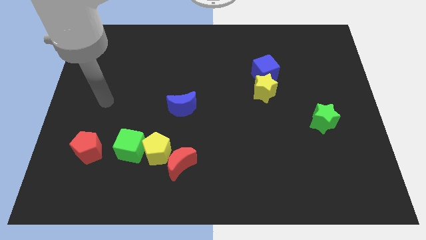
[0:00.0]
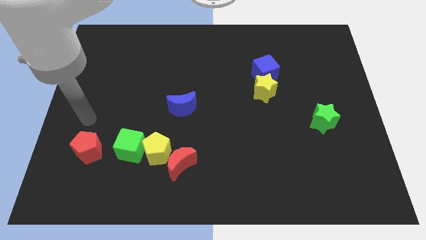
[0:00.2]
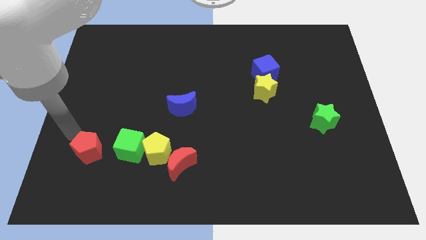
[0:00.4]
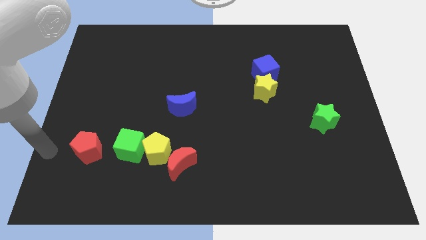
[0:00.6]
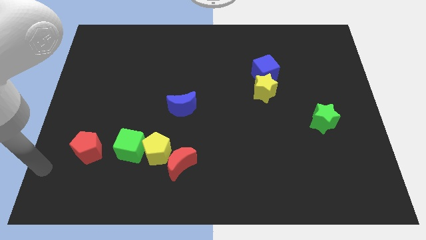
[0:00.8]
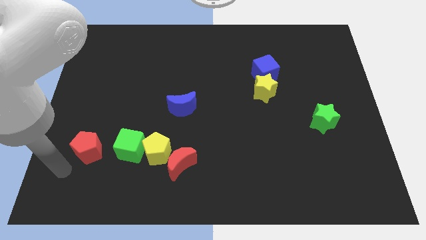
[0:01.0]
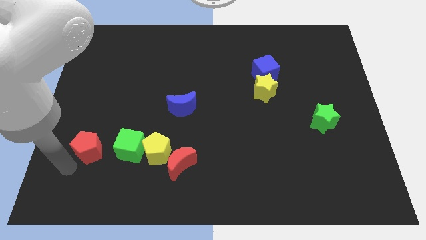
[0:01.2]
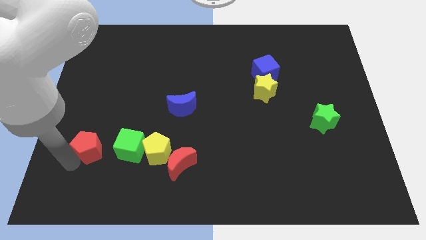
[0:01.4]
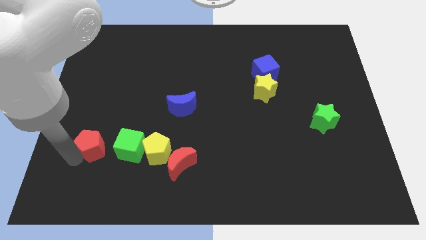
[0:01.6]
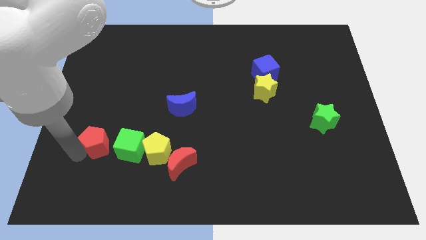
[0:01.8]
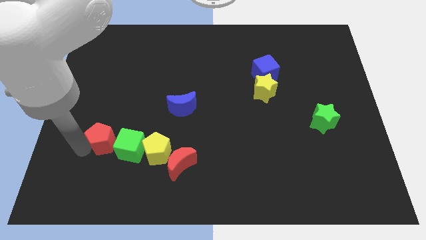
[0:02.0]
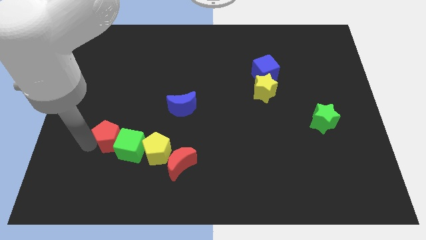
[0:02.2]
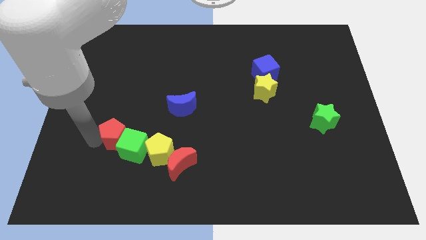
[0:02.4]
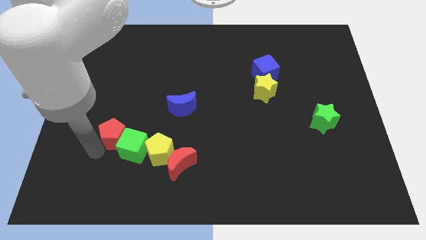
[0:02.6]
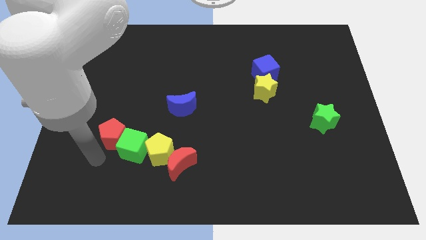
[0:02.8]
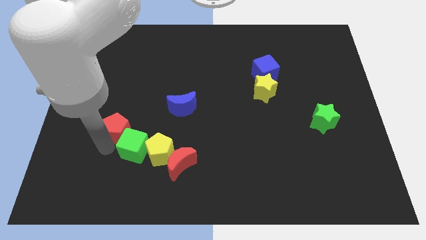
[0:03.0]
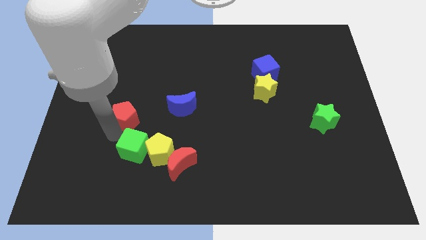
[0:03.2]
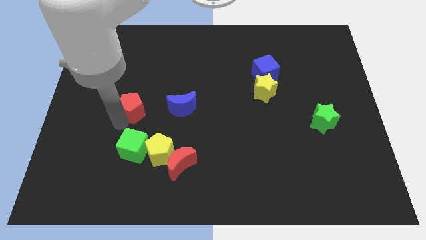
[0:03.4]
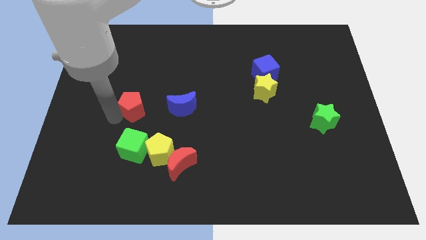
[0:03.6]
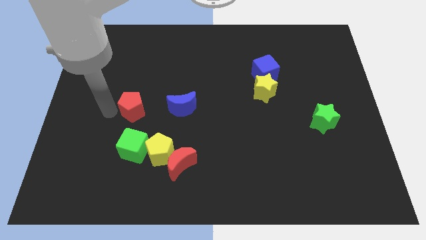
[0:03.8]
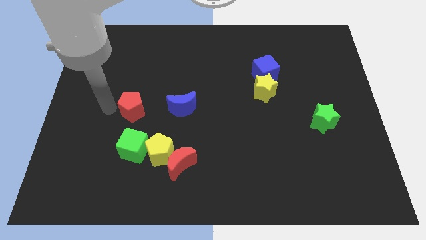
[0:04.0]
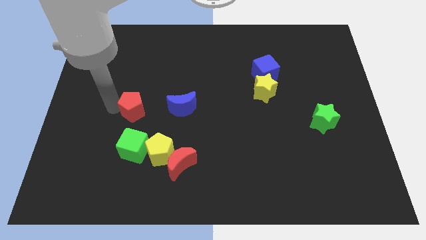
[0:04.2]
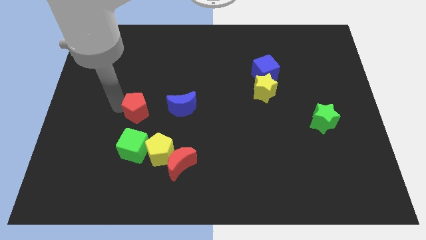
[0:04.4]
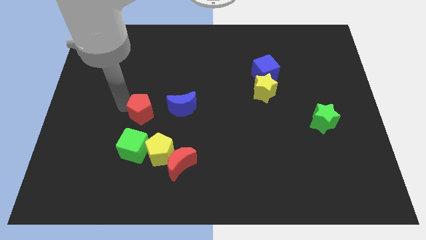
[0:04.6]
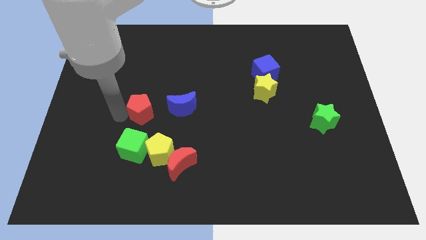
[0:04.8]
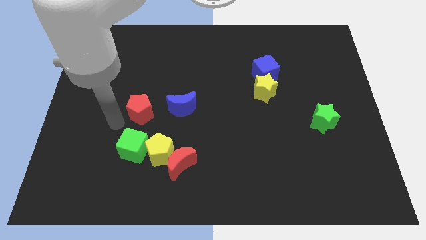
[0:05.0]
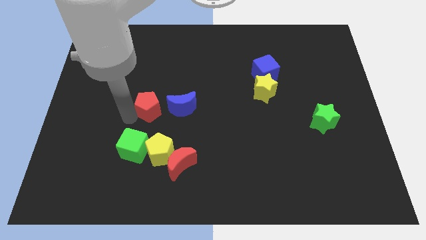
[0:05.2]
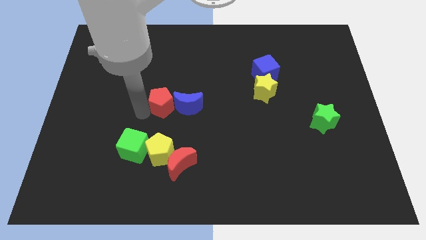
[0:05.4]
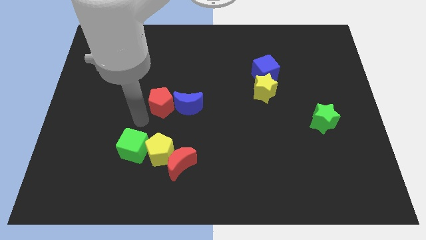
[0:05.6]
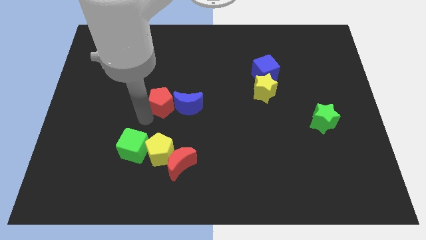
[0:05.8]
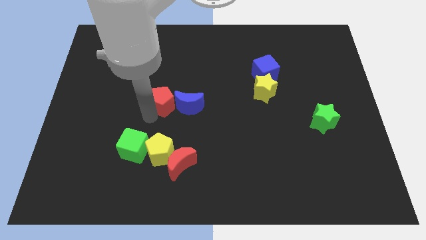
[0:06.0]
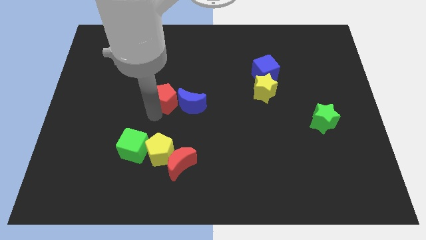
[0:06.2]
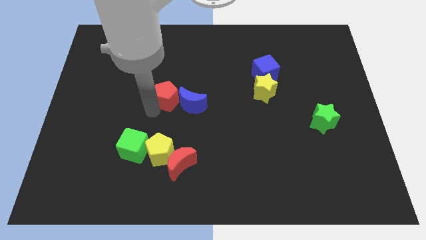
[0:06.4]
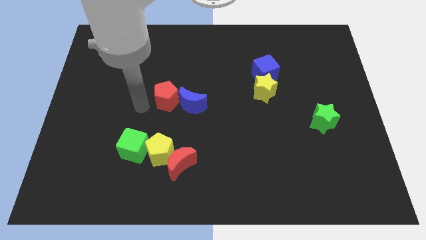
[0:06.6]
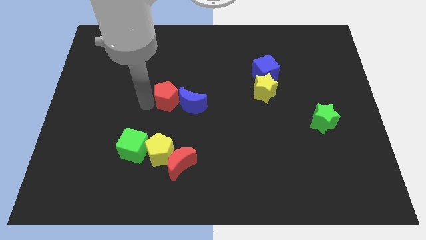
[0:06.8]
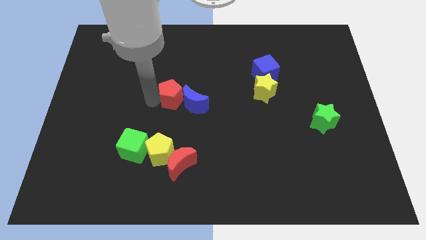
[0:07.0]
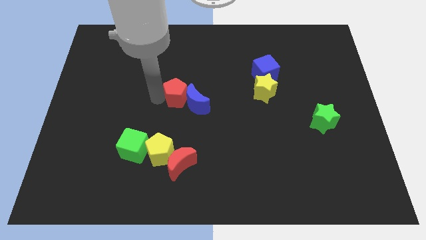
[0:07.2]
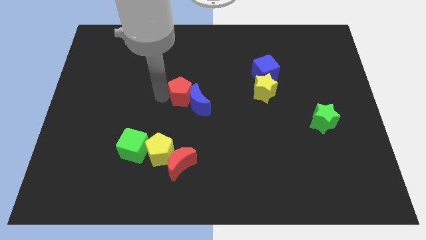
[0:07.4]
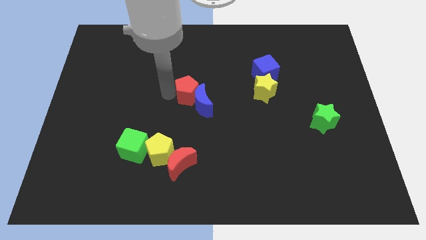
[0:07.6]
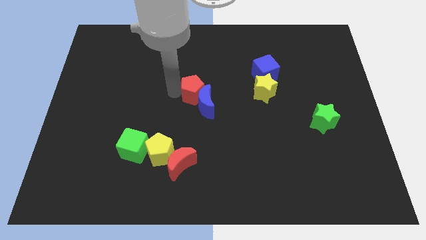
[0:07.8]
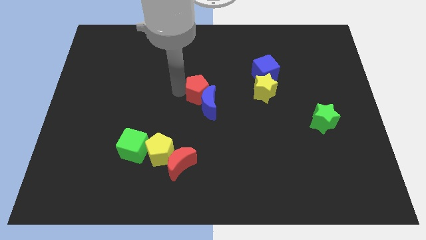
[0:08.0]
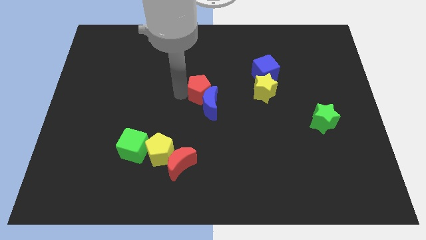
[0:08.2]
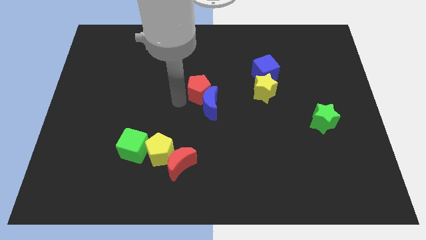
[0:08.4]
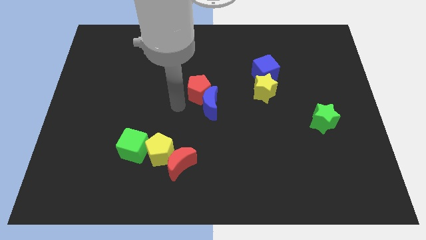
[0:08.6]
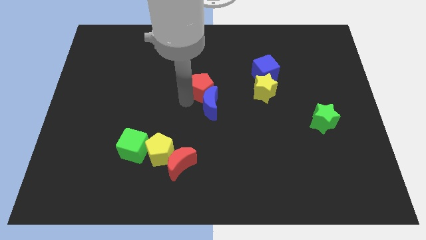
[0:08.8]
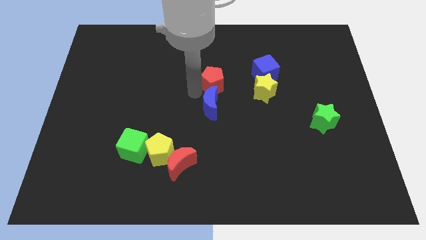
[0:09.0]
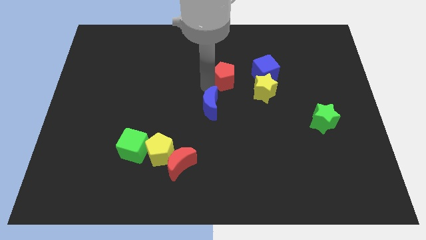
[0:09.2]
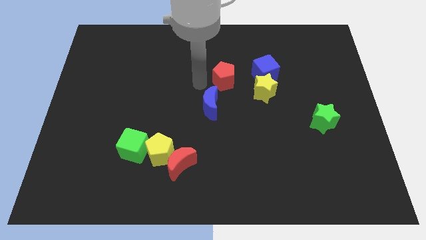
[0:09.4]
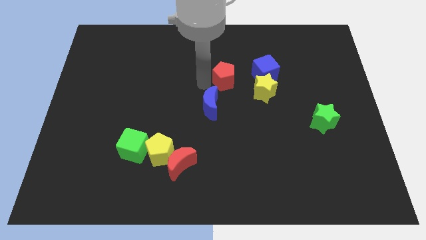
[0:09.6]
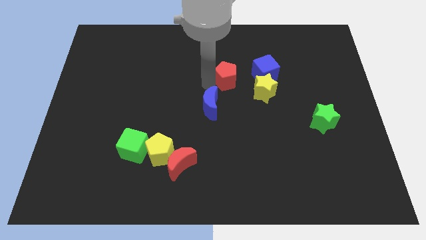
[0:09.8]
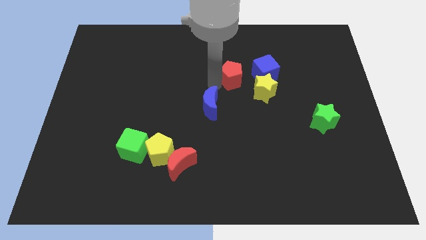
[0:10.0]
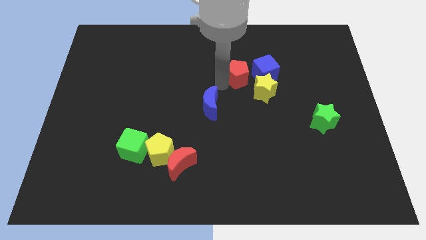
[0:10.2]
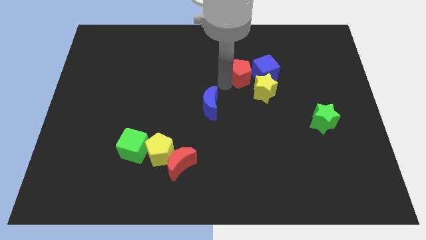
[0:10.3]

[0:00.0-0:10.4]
slide the red pentagon towards the blue cube

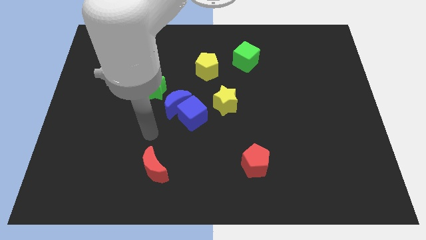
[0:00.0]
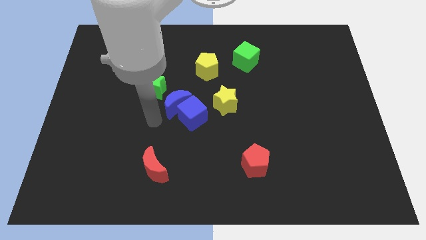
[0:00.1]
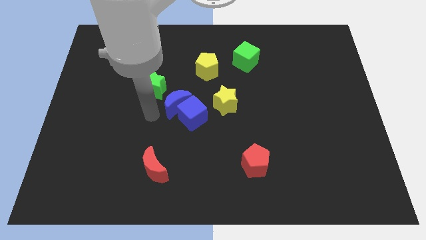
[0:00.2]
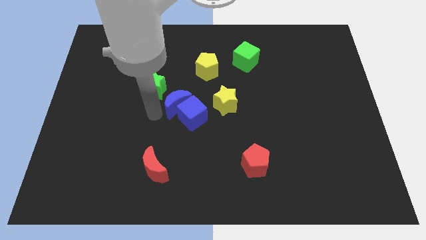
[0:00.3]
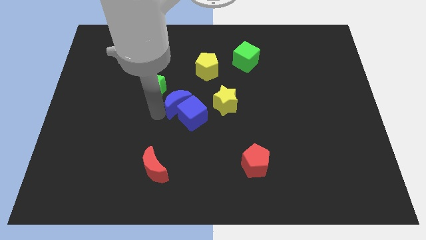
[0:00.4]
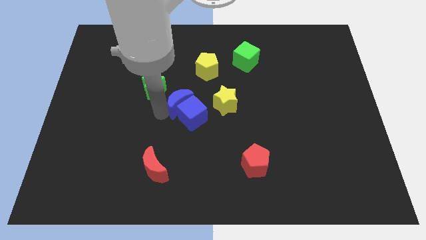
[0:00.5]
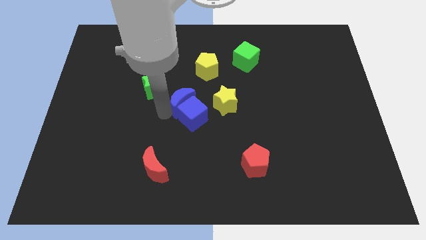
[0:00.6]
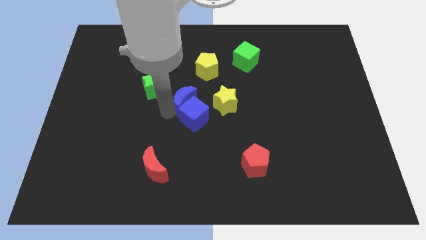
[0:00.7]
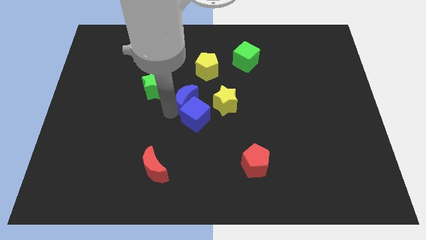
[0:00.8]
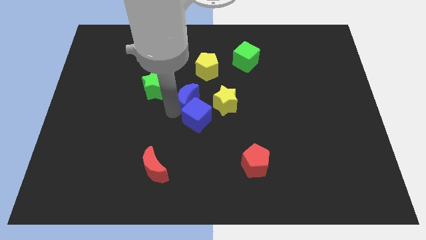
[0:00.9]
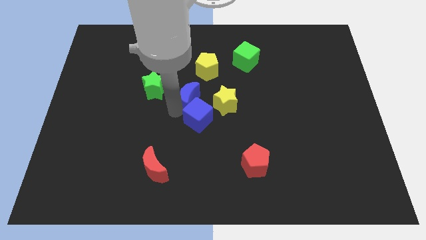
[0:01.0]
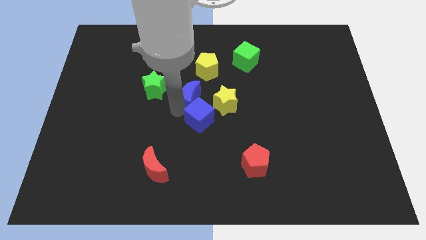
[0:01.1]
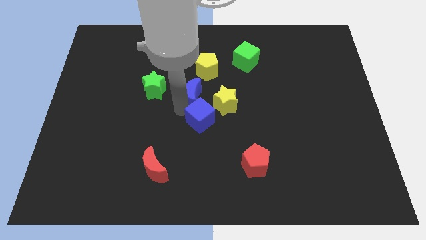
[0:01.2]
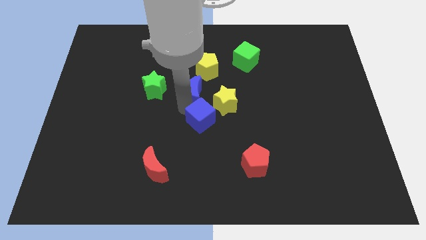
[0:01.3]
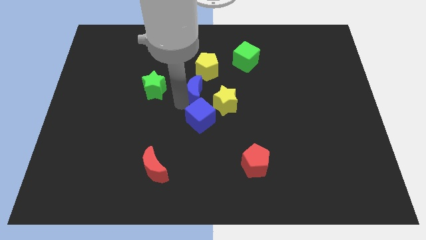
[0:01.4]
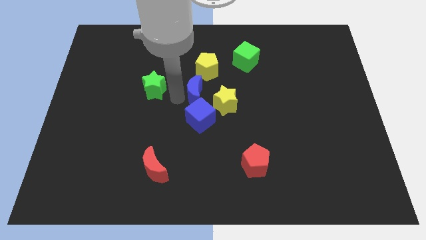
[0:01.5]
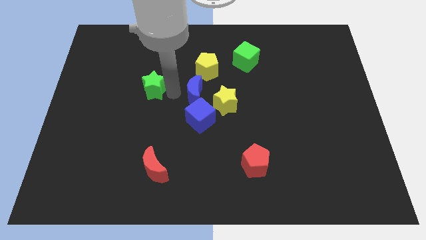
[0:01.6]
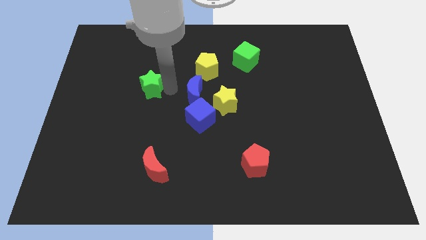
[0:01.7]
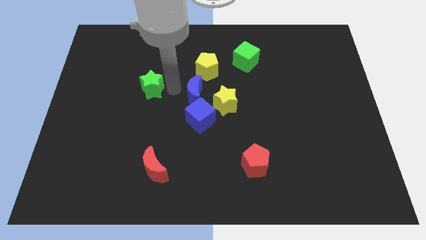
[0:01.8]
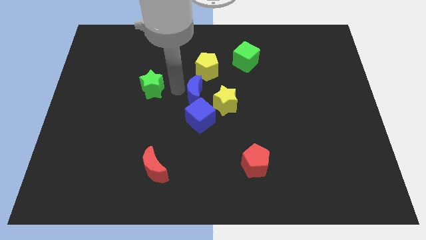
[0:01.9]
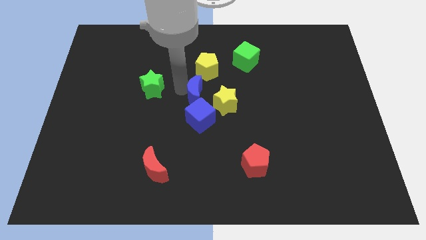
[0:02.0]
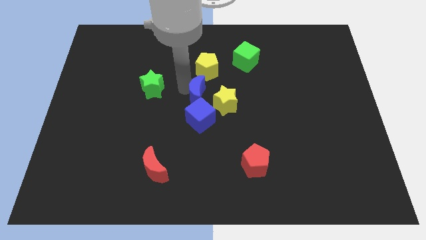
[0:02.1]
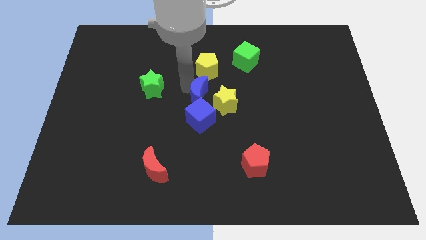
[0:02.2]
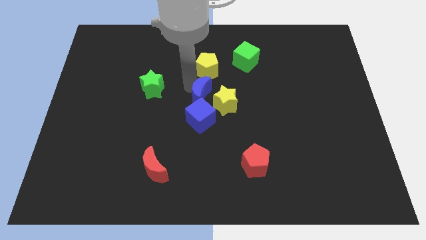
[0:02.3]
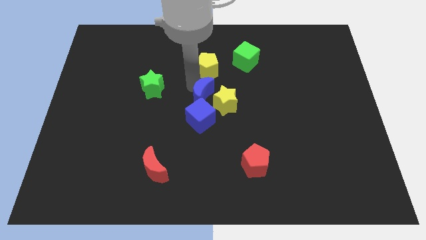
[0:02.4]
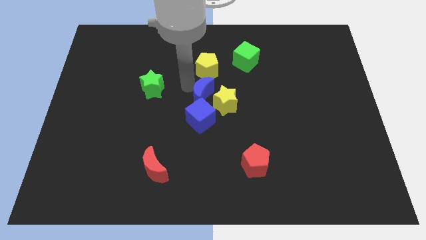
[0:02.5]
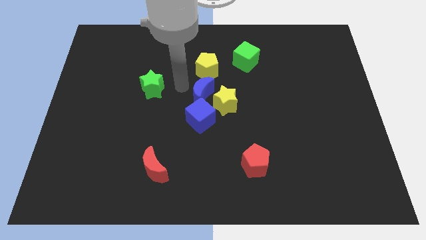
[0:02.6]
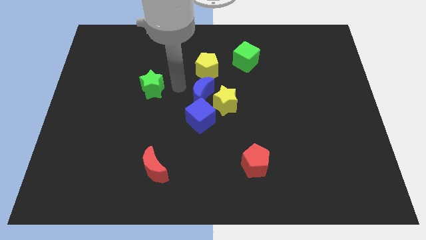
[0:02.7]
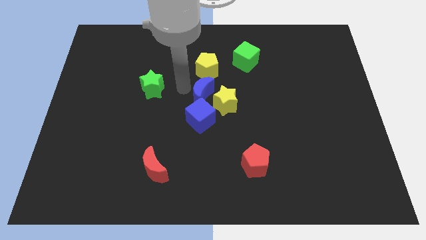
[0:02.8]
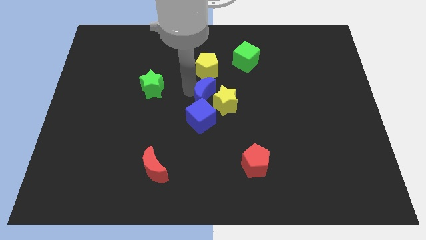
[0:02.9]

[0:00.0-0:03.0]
move the blue moon to the yellow star
